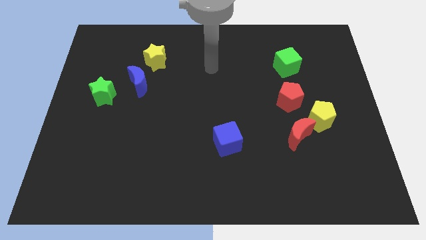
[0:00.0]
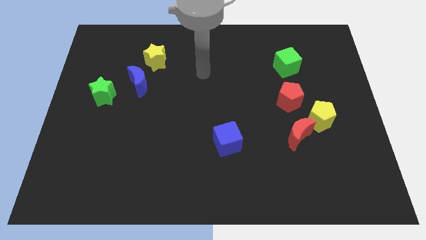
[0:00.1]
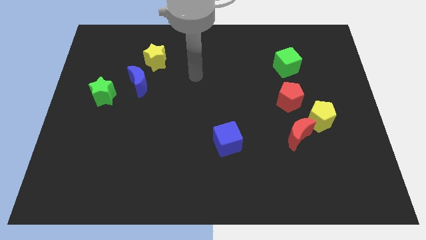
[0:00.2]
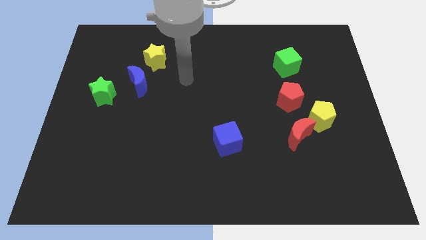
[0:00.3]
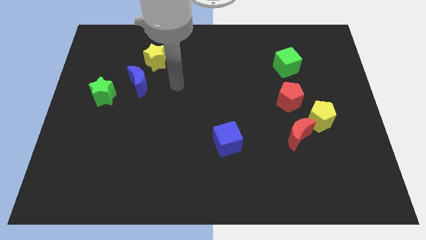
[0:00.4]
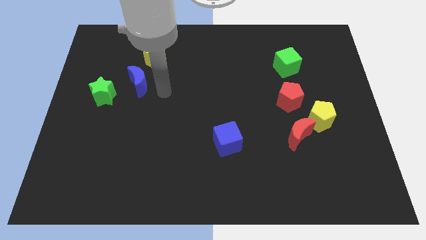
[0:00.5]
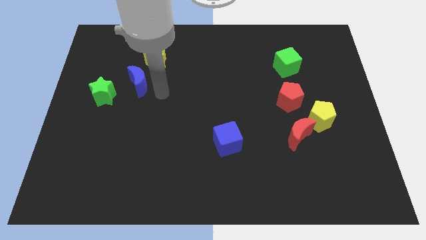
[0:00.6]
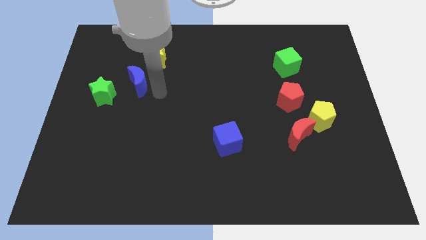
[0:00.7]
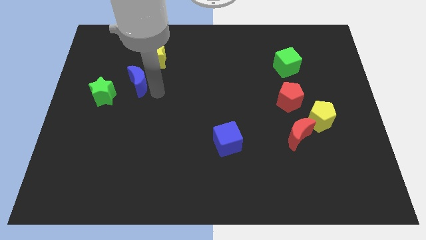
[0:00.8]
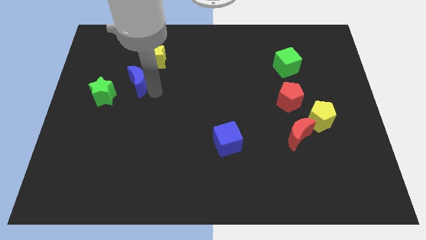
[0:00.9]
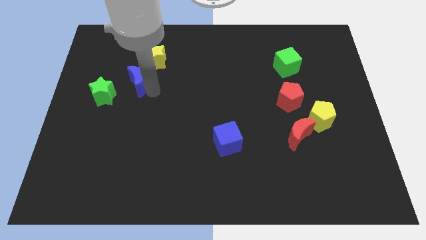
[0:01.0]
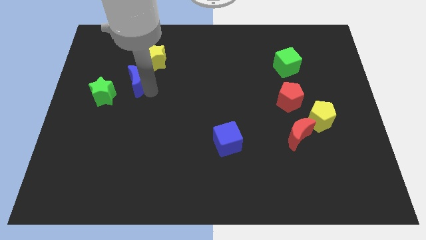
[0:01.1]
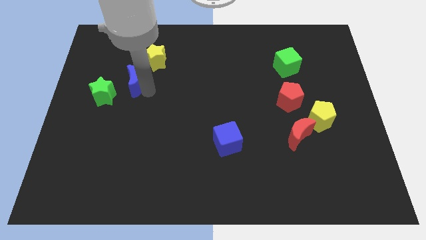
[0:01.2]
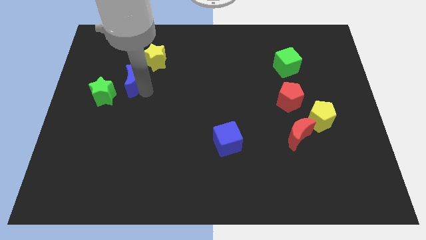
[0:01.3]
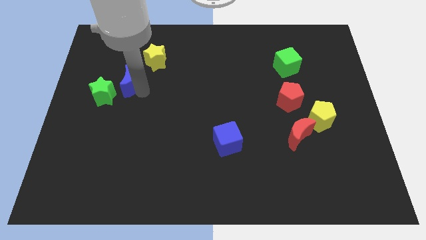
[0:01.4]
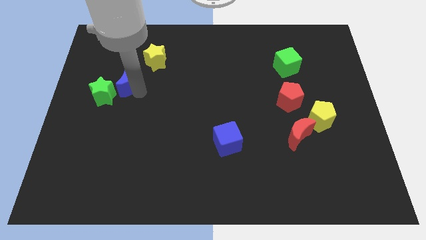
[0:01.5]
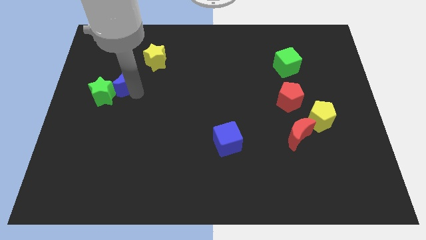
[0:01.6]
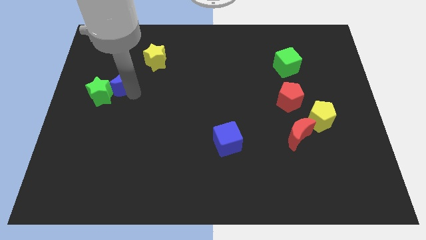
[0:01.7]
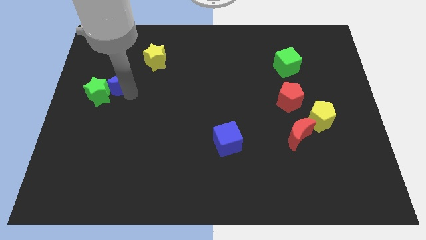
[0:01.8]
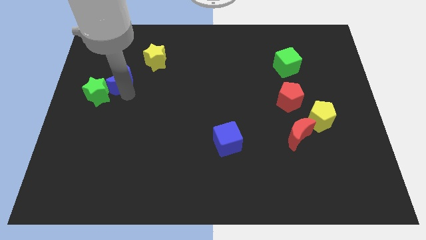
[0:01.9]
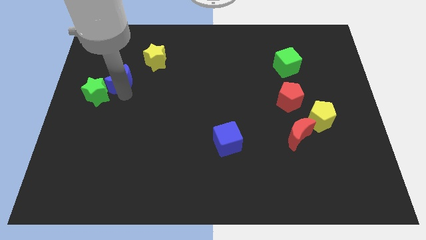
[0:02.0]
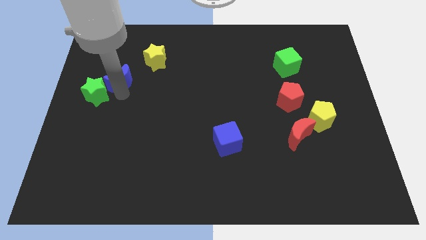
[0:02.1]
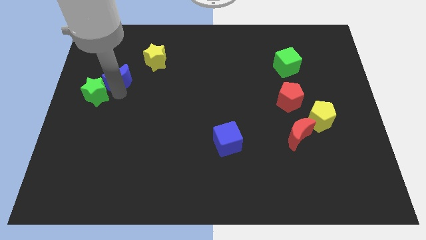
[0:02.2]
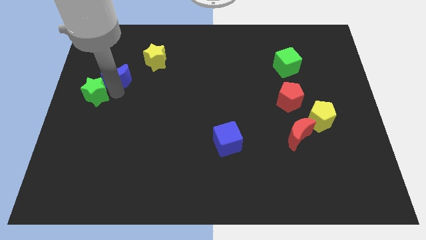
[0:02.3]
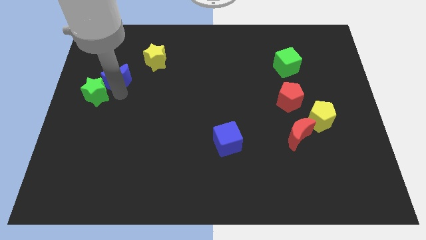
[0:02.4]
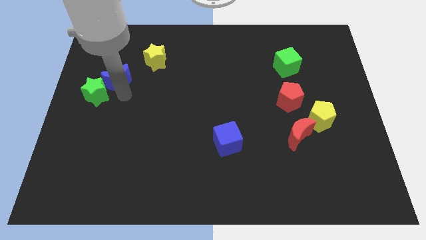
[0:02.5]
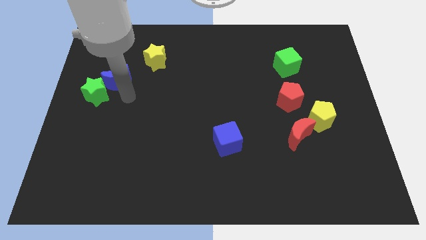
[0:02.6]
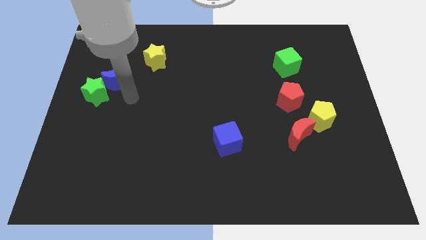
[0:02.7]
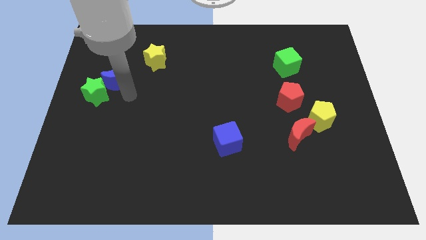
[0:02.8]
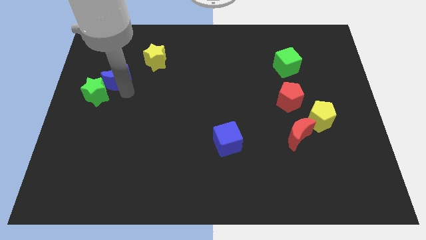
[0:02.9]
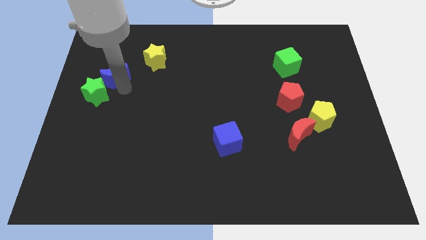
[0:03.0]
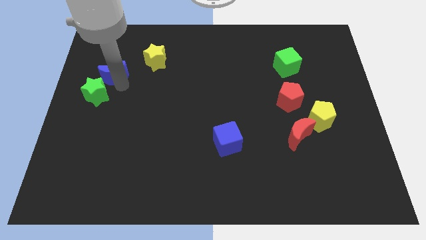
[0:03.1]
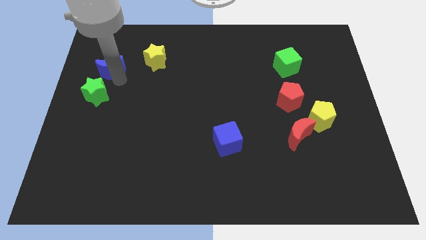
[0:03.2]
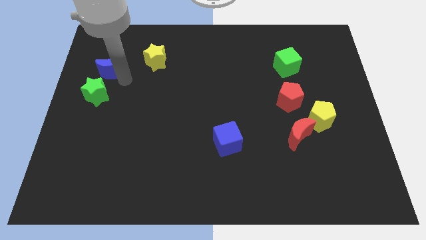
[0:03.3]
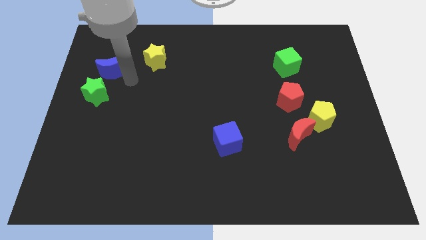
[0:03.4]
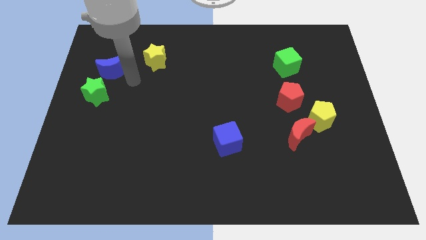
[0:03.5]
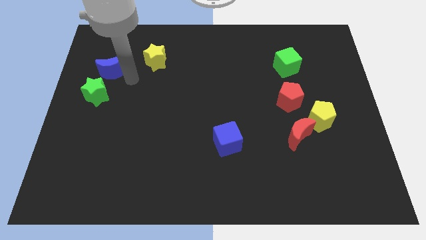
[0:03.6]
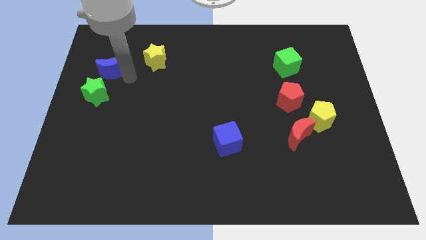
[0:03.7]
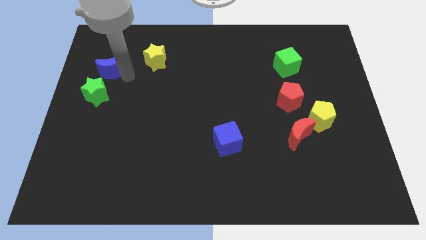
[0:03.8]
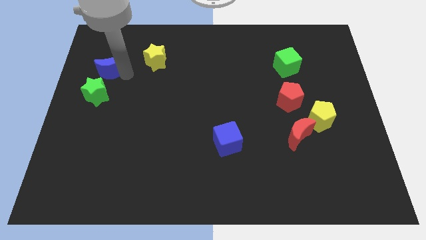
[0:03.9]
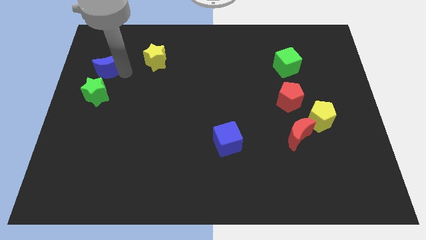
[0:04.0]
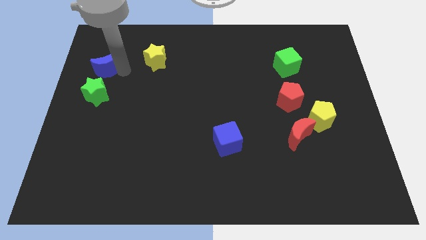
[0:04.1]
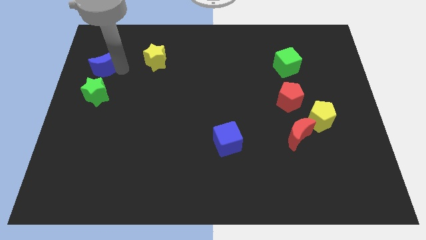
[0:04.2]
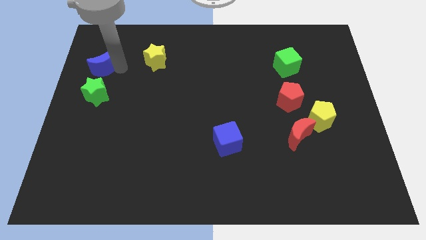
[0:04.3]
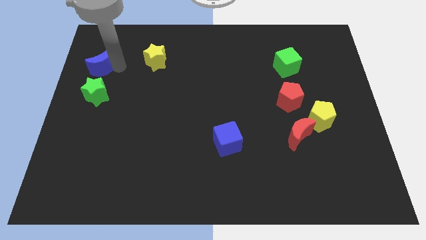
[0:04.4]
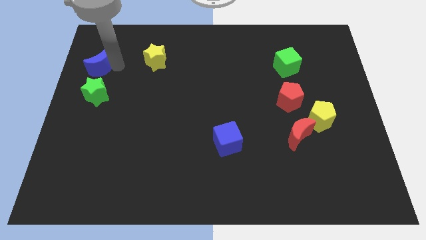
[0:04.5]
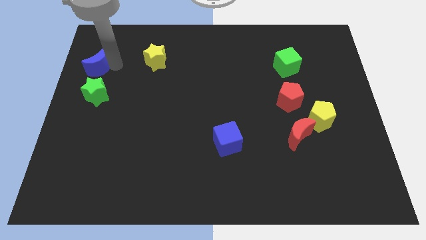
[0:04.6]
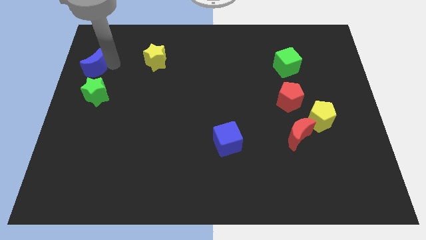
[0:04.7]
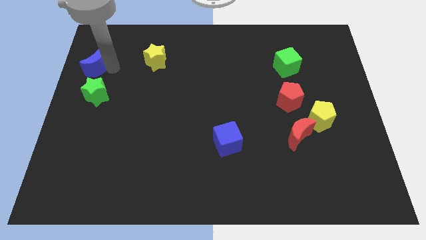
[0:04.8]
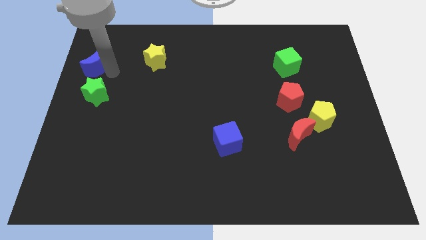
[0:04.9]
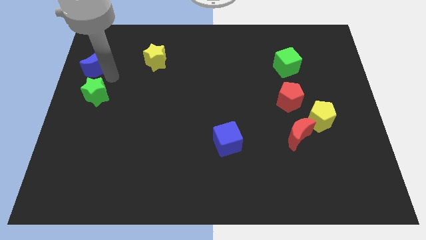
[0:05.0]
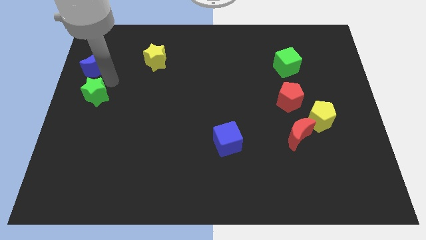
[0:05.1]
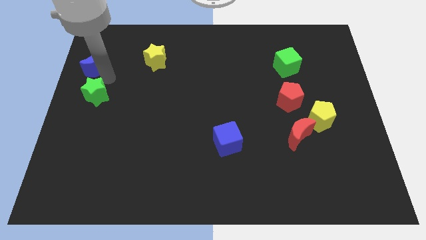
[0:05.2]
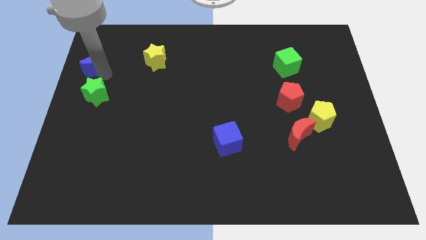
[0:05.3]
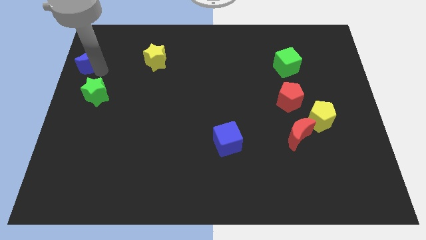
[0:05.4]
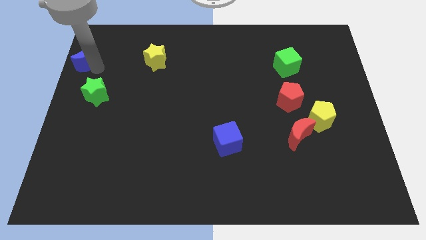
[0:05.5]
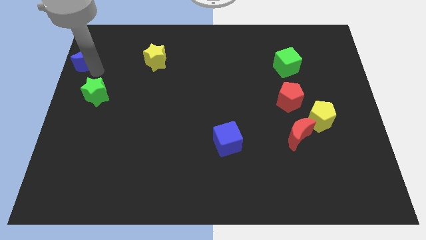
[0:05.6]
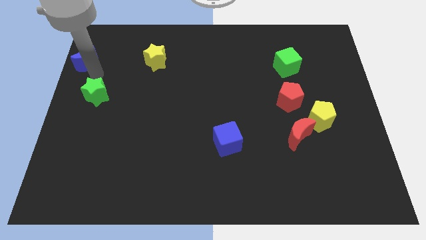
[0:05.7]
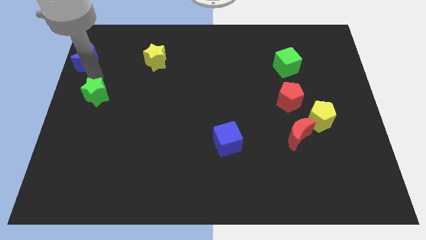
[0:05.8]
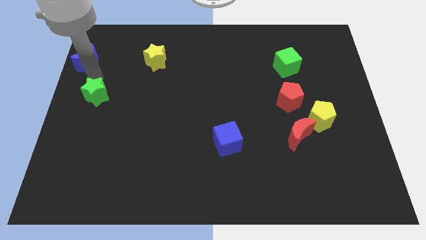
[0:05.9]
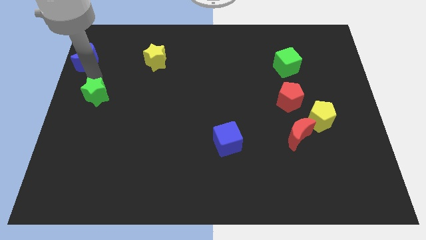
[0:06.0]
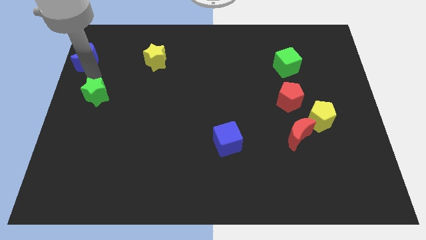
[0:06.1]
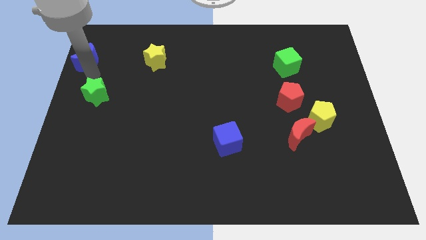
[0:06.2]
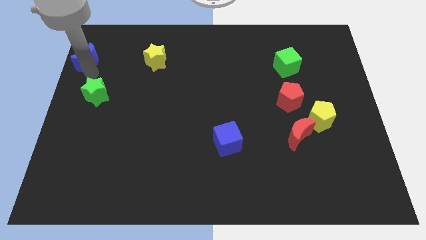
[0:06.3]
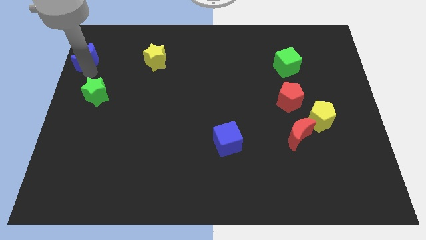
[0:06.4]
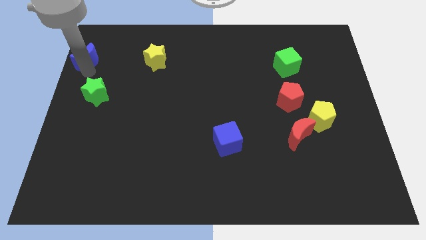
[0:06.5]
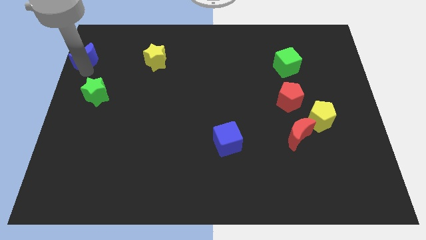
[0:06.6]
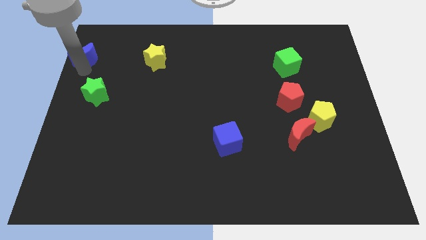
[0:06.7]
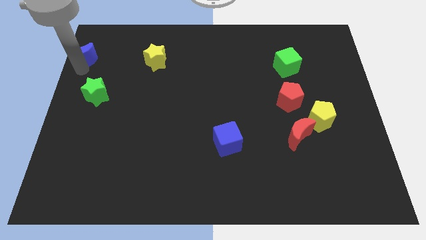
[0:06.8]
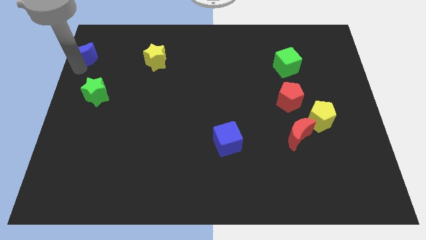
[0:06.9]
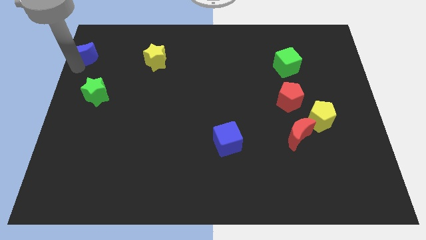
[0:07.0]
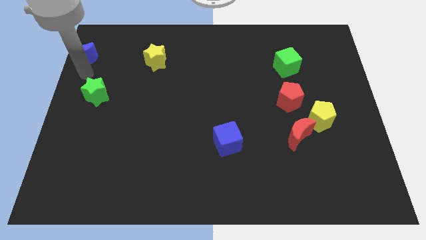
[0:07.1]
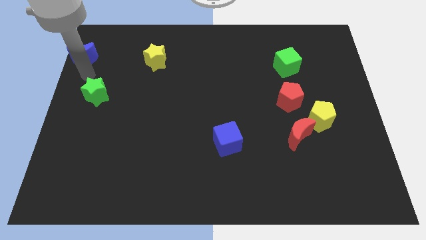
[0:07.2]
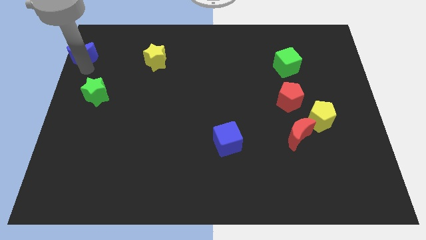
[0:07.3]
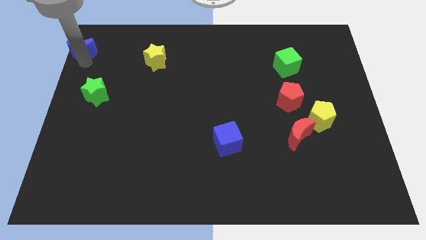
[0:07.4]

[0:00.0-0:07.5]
push the blue moon to the top left corner

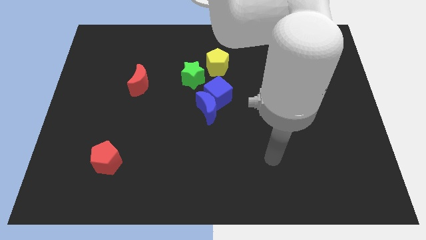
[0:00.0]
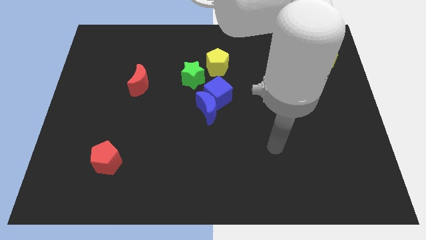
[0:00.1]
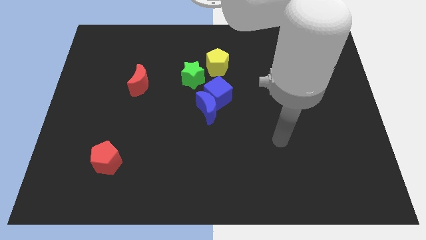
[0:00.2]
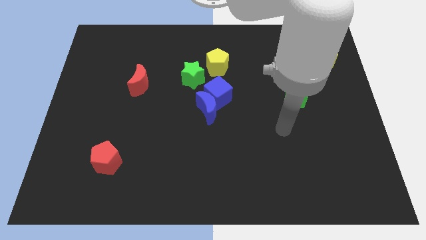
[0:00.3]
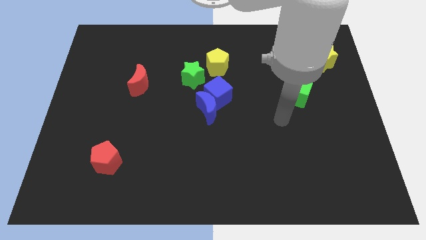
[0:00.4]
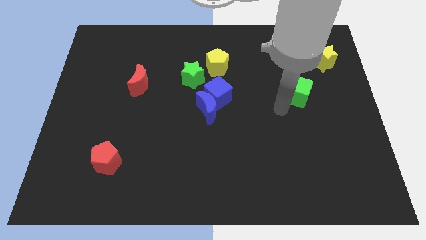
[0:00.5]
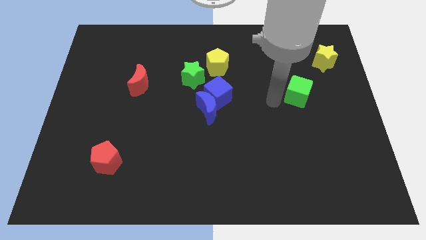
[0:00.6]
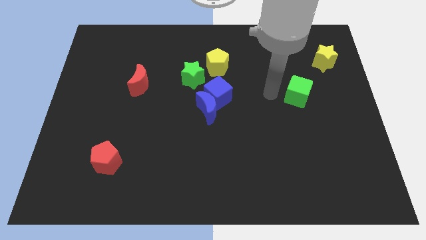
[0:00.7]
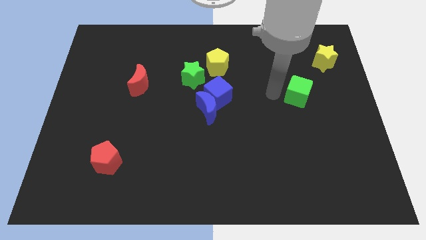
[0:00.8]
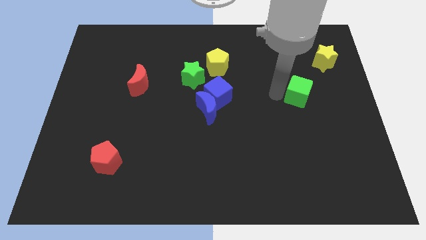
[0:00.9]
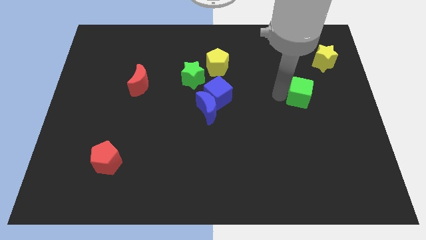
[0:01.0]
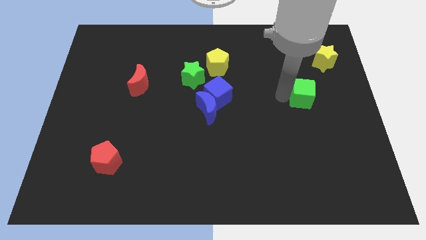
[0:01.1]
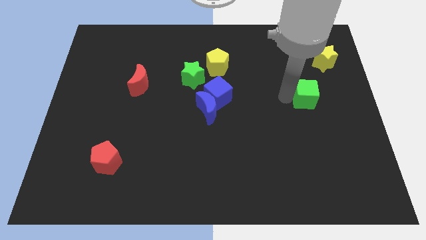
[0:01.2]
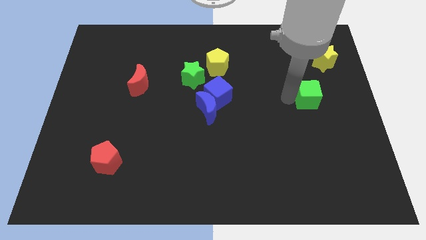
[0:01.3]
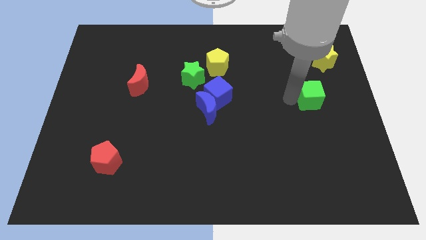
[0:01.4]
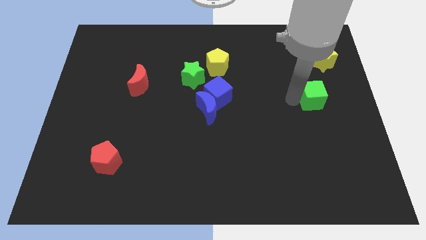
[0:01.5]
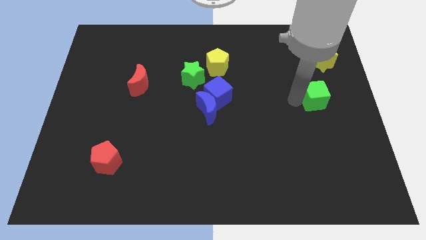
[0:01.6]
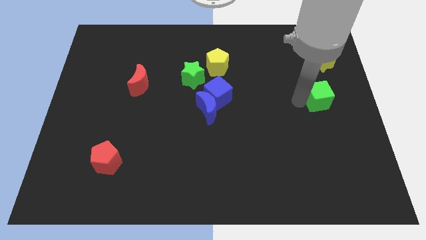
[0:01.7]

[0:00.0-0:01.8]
move the green cube to the right side of the board
